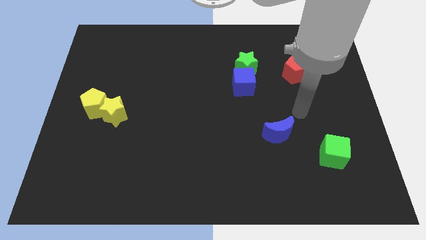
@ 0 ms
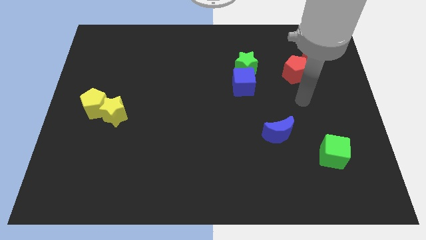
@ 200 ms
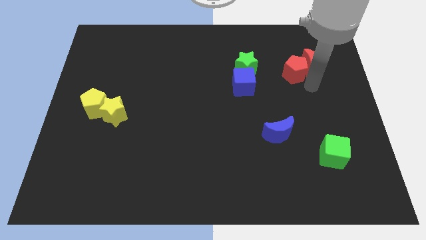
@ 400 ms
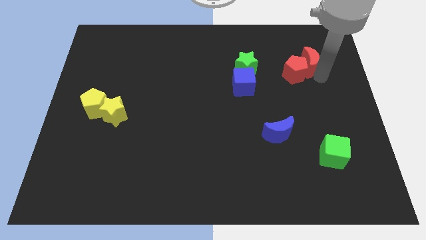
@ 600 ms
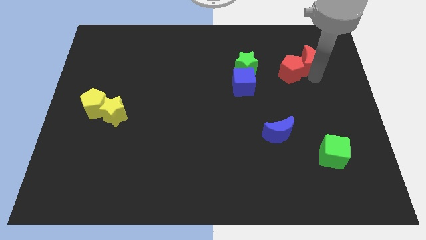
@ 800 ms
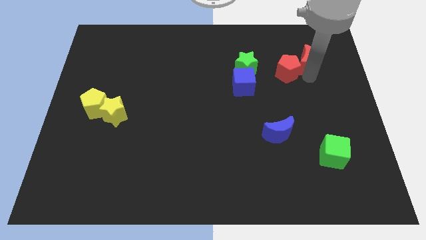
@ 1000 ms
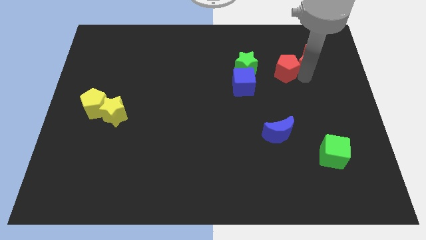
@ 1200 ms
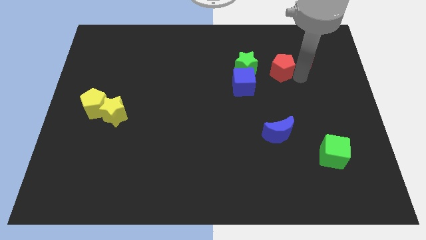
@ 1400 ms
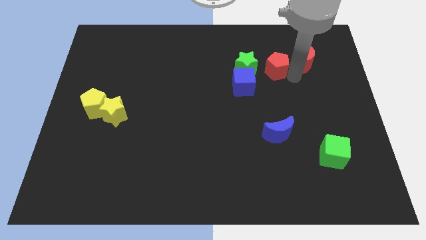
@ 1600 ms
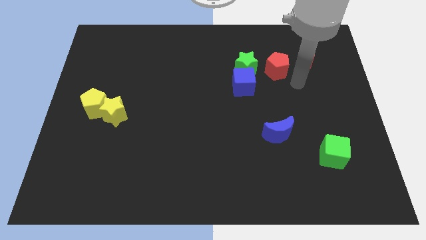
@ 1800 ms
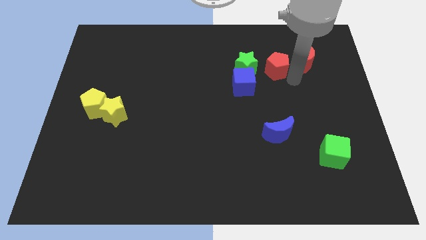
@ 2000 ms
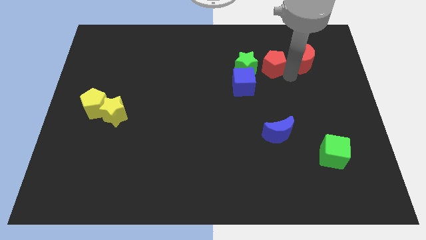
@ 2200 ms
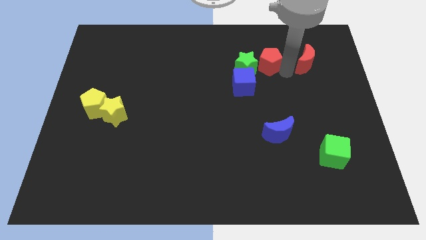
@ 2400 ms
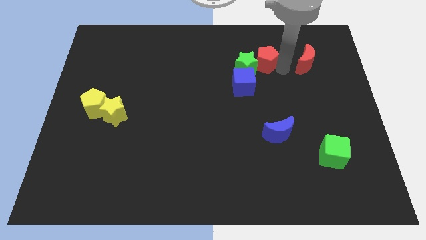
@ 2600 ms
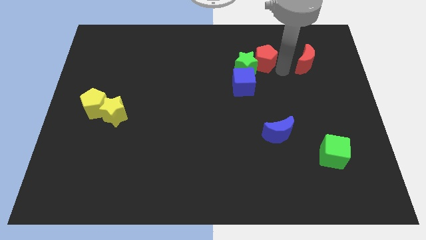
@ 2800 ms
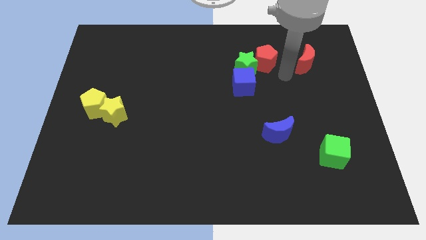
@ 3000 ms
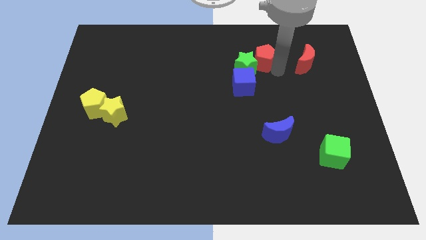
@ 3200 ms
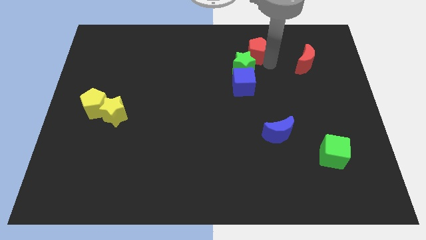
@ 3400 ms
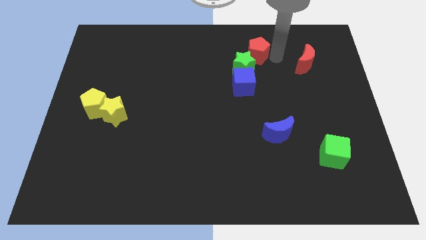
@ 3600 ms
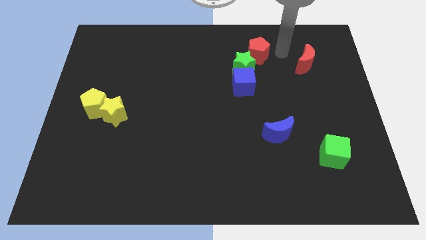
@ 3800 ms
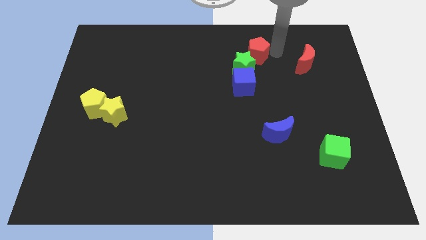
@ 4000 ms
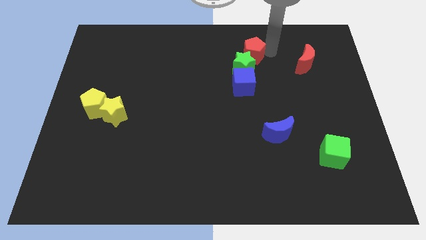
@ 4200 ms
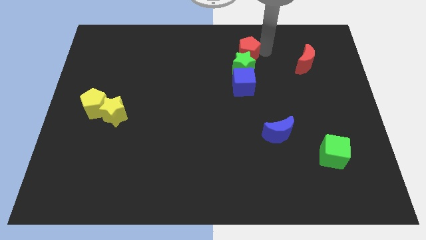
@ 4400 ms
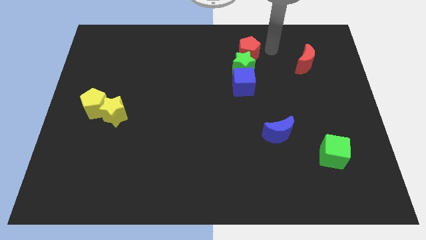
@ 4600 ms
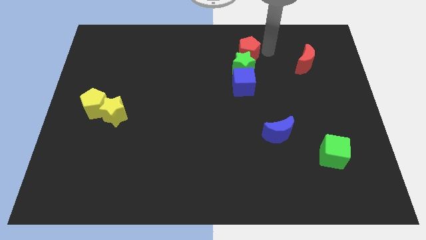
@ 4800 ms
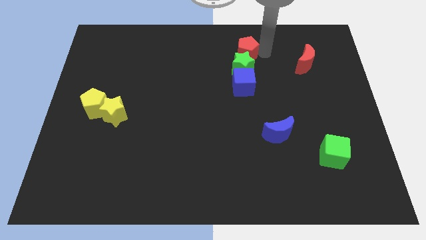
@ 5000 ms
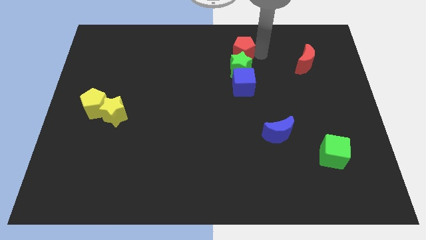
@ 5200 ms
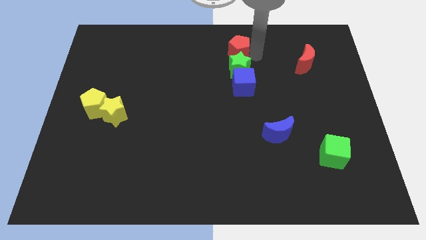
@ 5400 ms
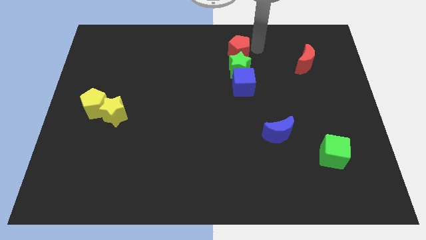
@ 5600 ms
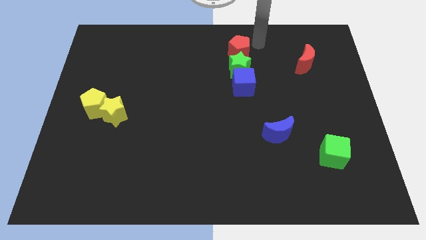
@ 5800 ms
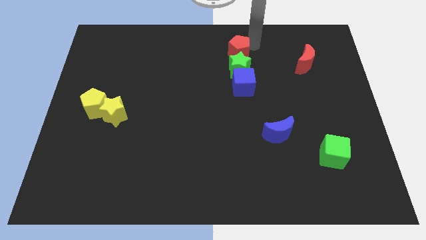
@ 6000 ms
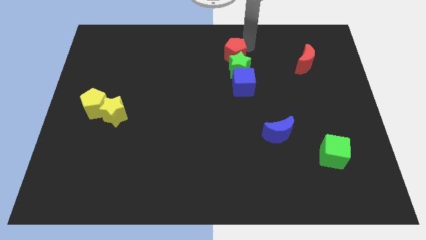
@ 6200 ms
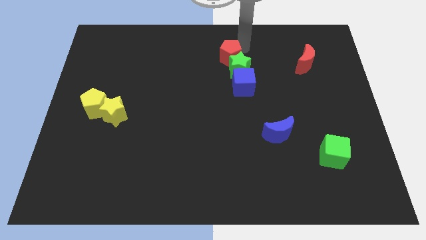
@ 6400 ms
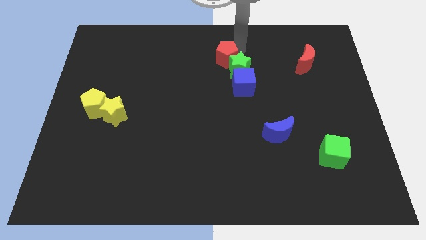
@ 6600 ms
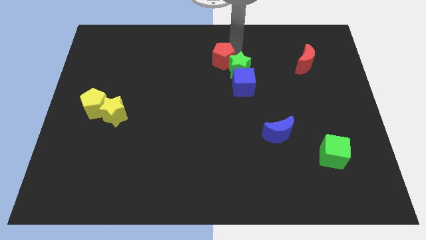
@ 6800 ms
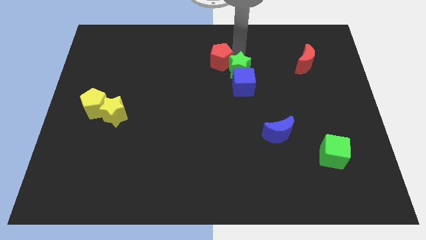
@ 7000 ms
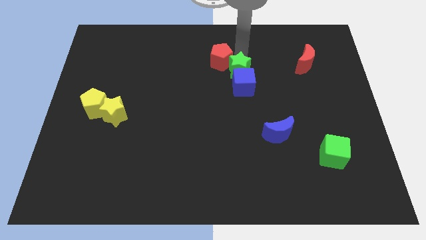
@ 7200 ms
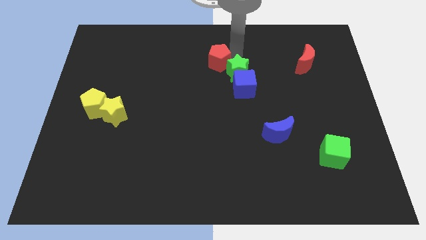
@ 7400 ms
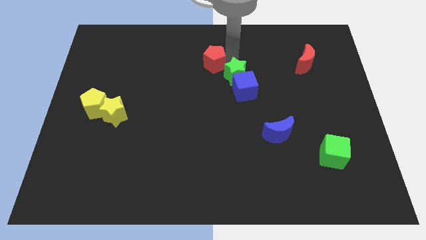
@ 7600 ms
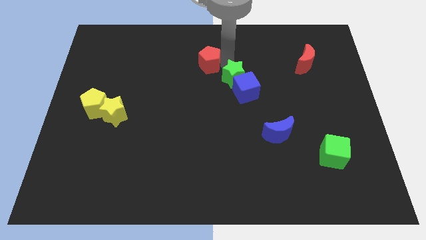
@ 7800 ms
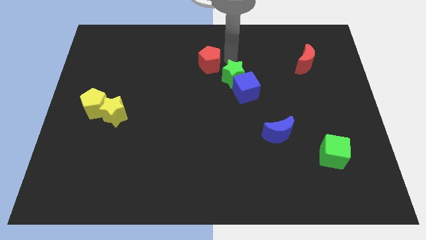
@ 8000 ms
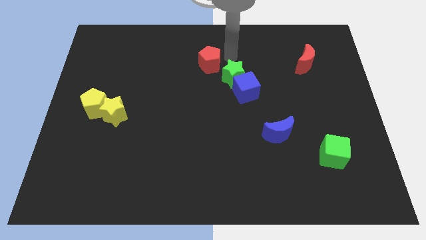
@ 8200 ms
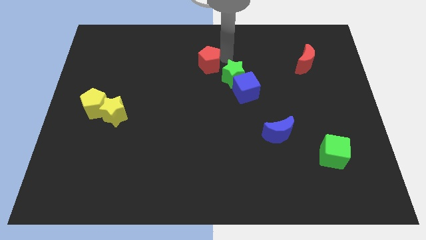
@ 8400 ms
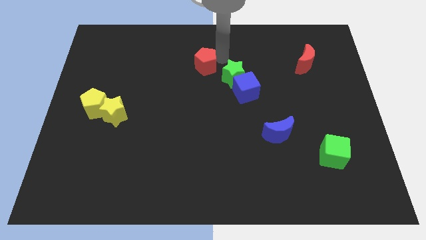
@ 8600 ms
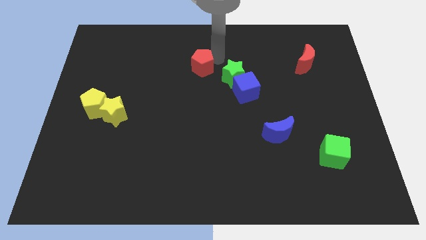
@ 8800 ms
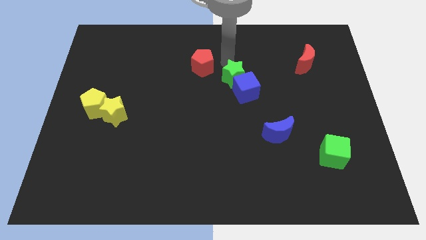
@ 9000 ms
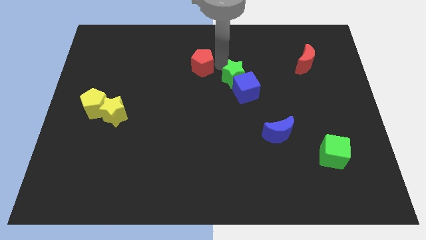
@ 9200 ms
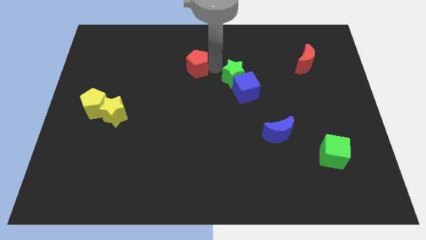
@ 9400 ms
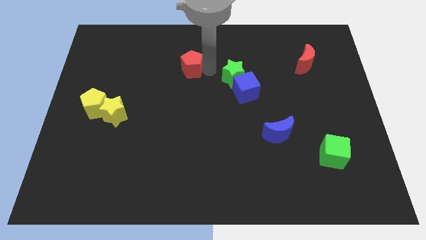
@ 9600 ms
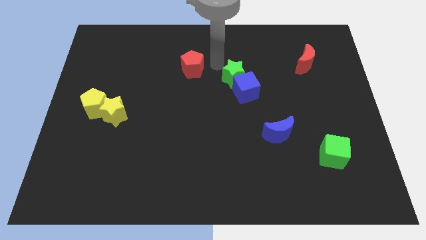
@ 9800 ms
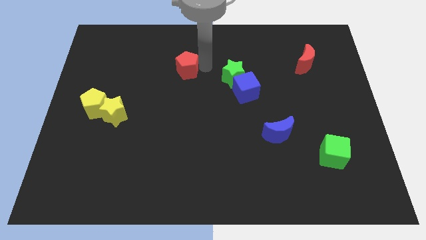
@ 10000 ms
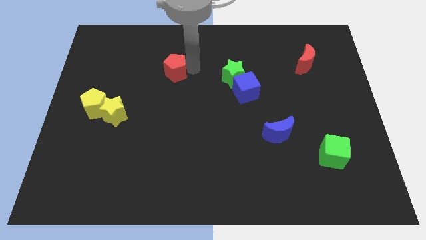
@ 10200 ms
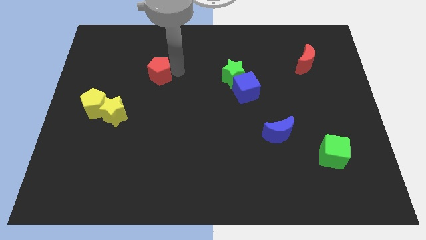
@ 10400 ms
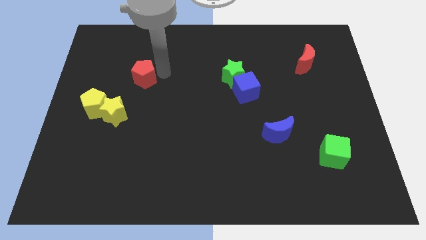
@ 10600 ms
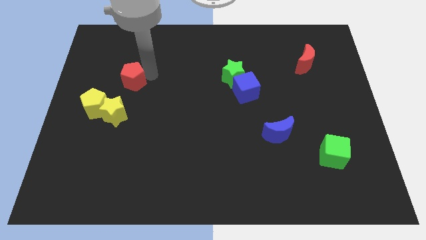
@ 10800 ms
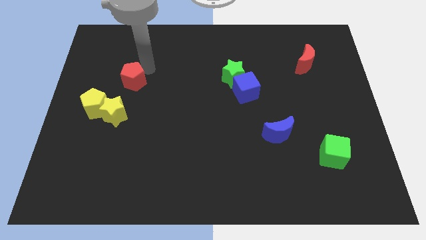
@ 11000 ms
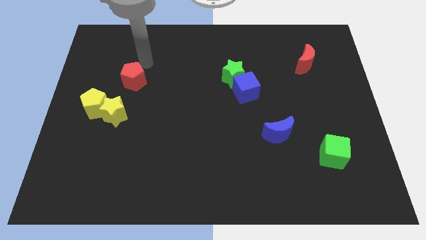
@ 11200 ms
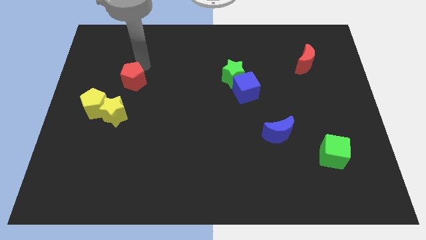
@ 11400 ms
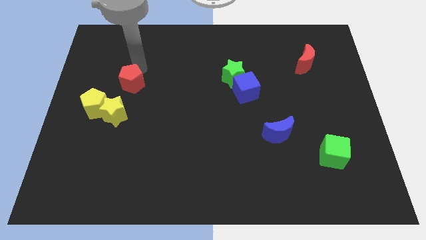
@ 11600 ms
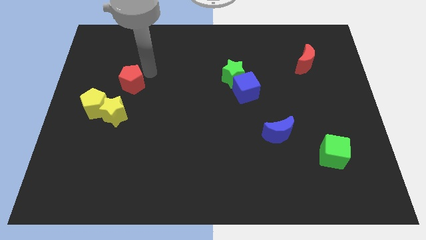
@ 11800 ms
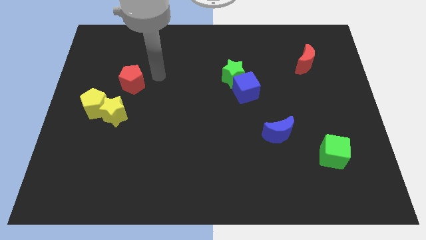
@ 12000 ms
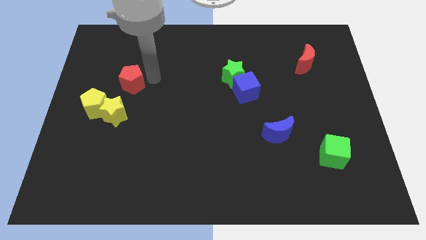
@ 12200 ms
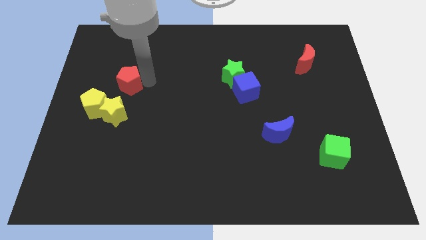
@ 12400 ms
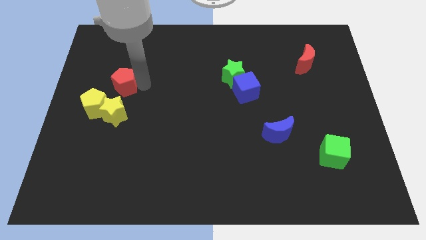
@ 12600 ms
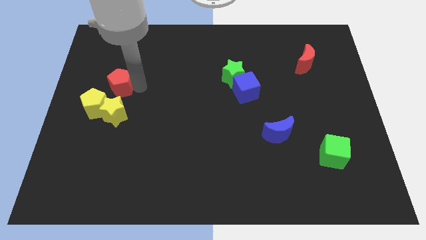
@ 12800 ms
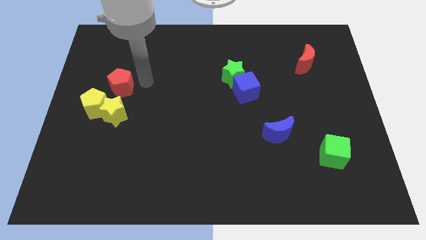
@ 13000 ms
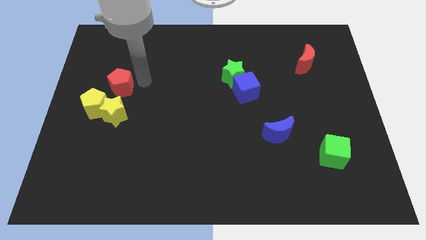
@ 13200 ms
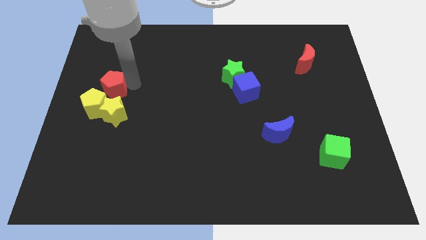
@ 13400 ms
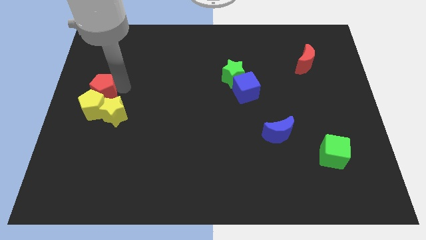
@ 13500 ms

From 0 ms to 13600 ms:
slide the red pentagon to the center left
